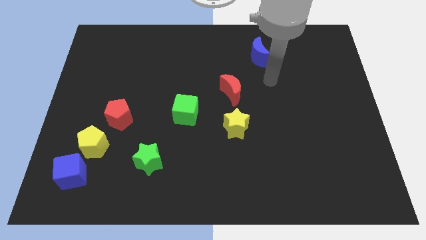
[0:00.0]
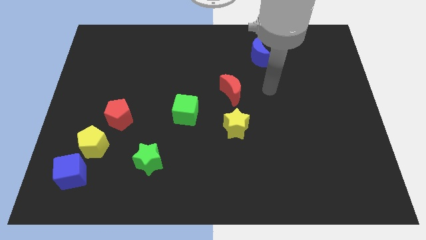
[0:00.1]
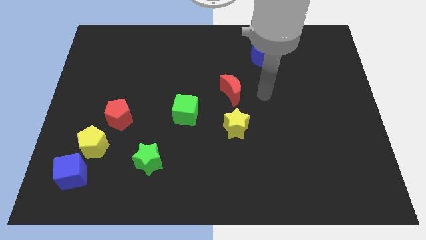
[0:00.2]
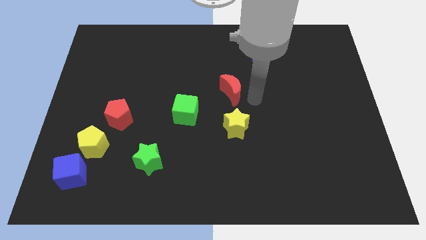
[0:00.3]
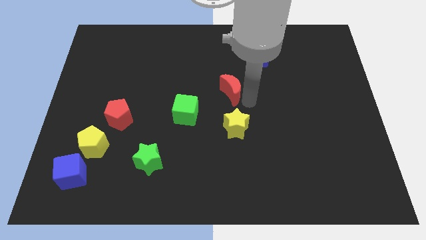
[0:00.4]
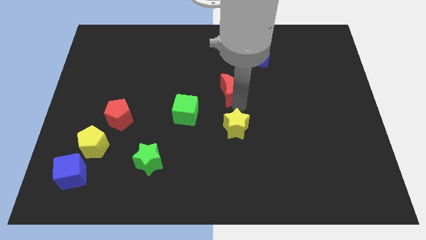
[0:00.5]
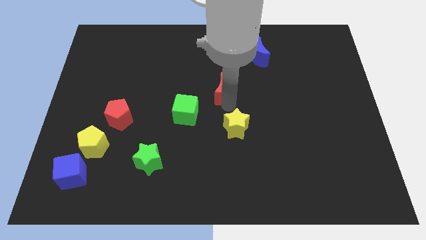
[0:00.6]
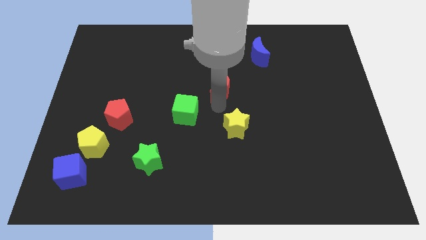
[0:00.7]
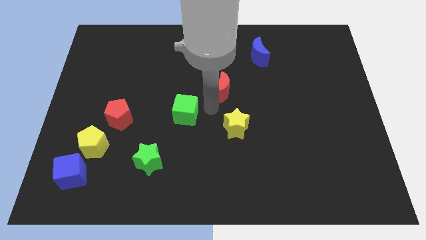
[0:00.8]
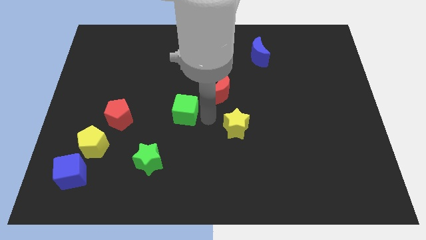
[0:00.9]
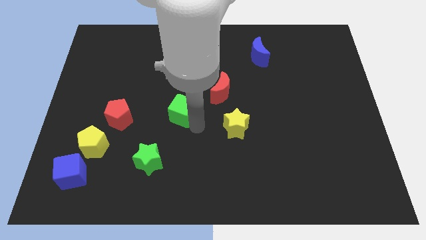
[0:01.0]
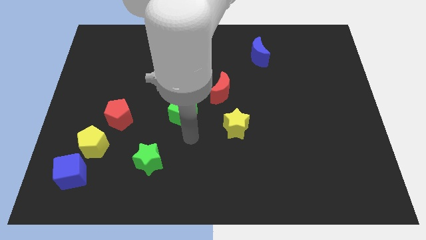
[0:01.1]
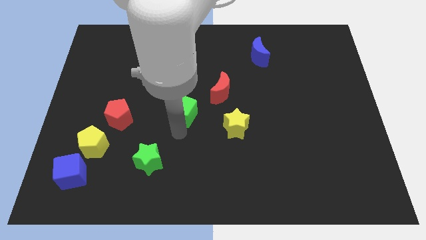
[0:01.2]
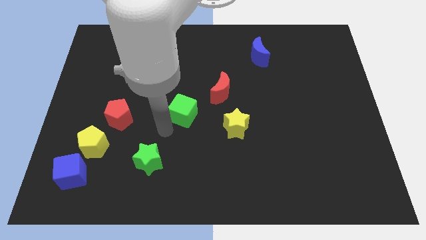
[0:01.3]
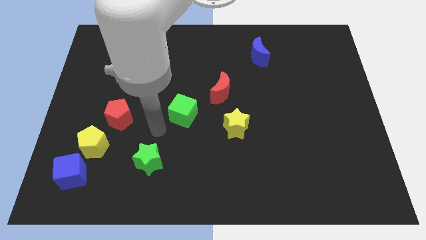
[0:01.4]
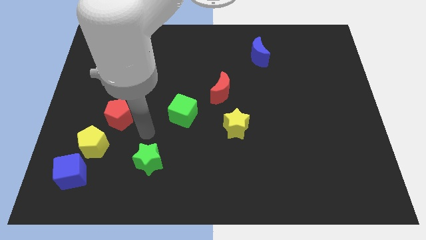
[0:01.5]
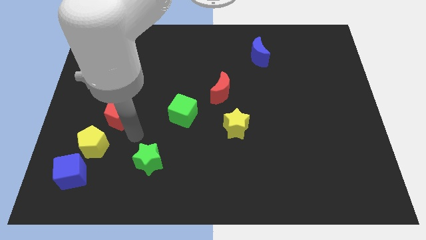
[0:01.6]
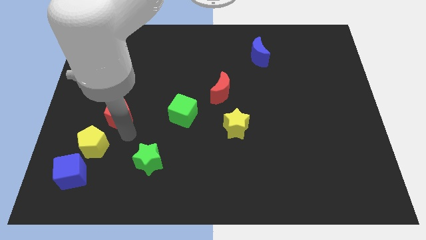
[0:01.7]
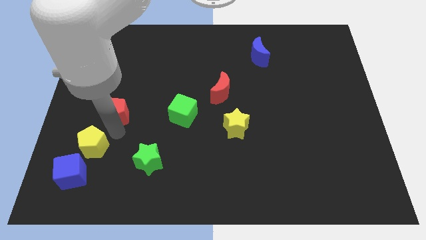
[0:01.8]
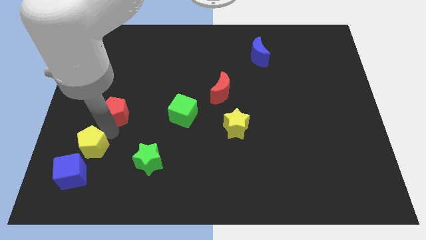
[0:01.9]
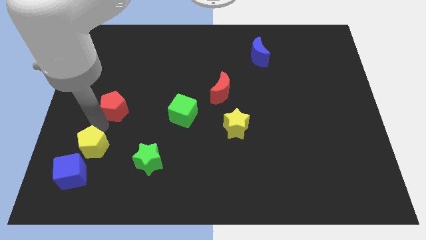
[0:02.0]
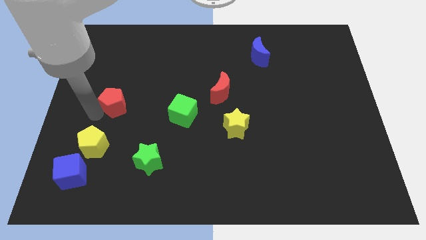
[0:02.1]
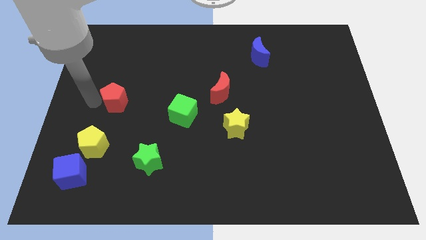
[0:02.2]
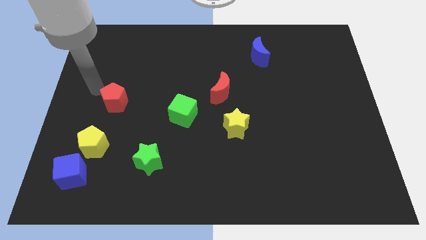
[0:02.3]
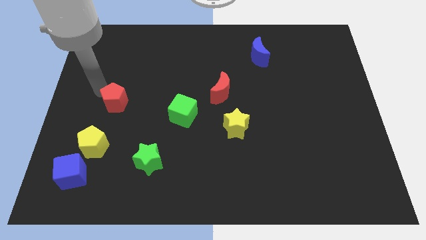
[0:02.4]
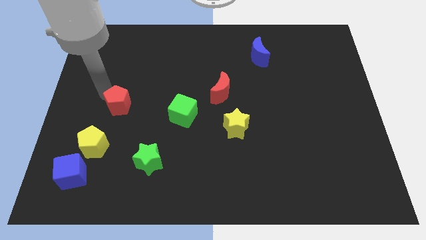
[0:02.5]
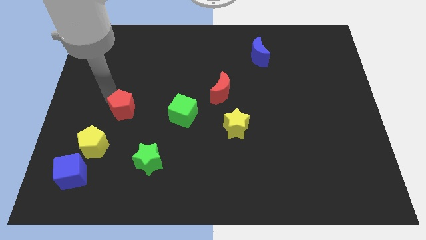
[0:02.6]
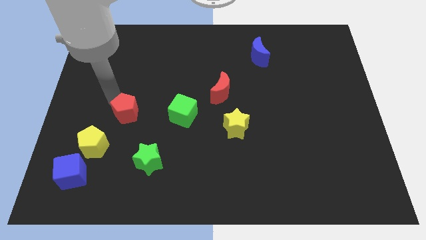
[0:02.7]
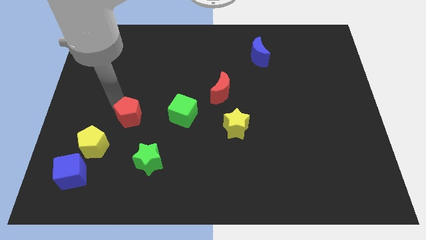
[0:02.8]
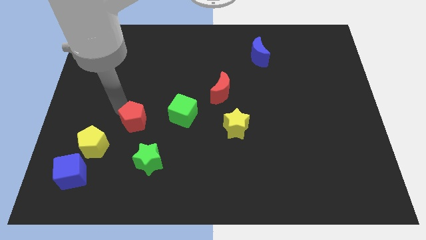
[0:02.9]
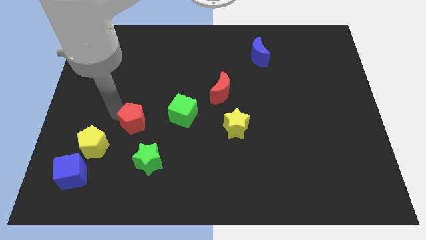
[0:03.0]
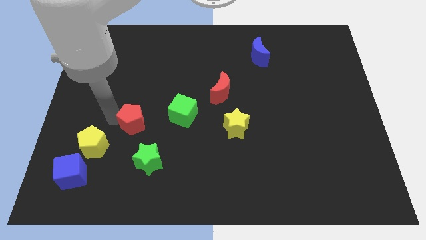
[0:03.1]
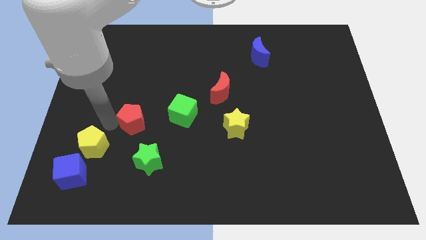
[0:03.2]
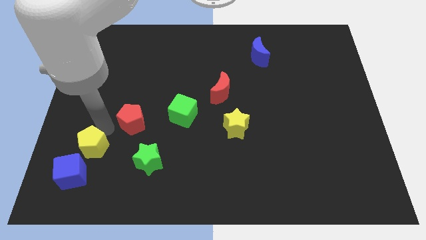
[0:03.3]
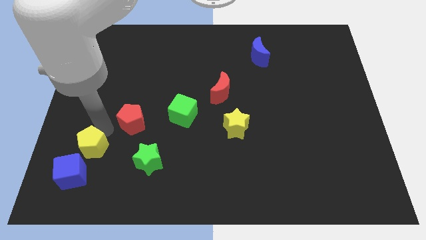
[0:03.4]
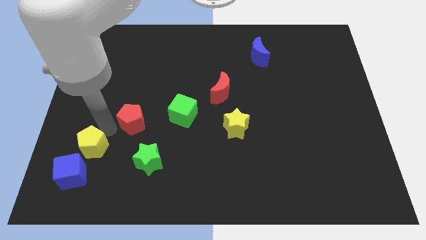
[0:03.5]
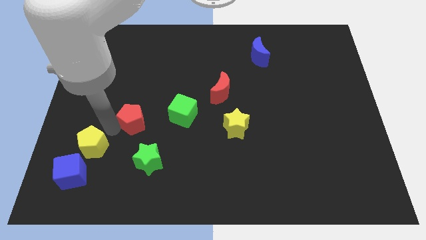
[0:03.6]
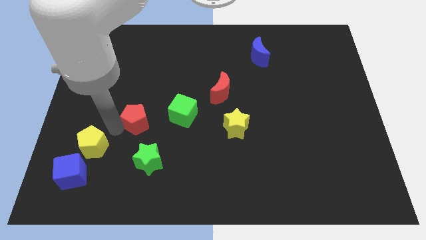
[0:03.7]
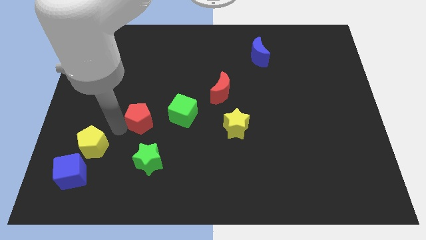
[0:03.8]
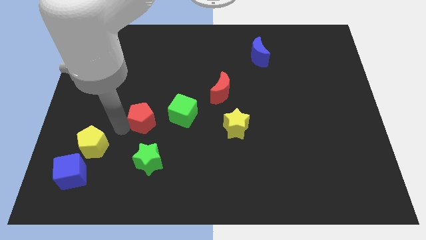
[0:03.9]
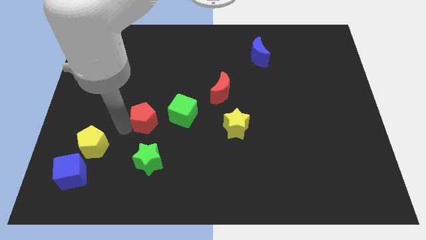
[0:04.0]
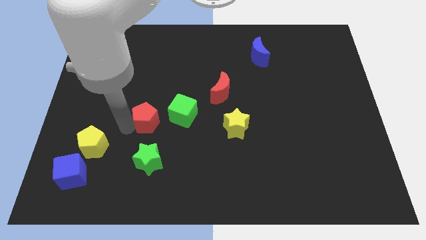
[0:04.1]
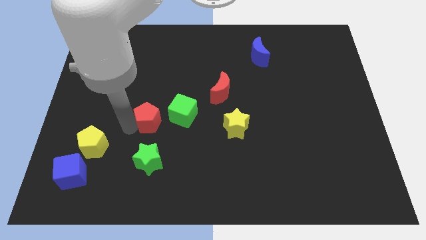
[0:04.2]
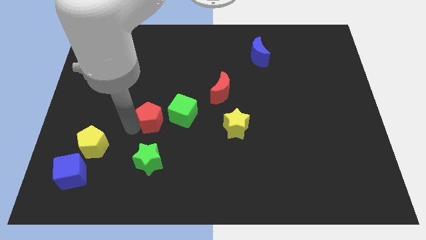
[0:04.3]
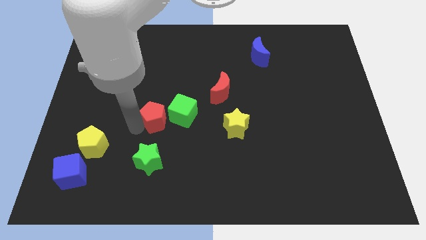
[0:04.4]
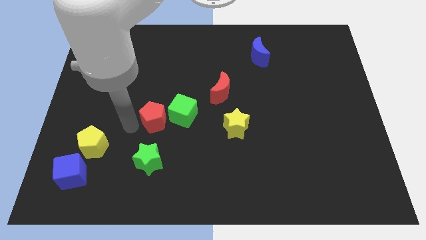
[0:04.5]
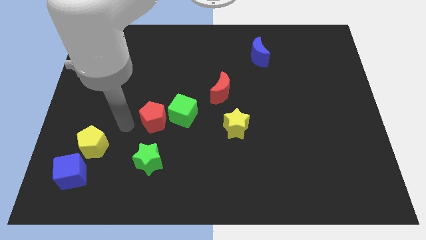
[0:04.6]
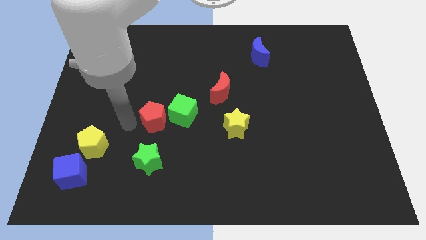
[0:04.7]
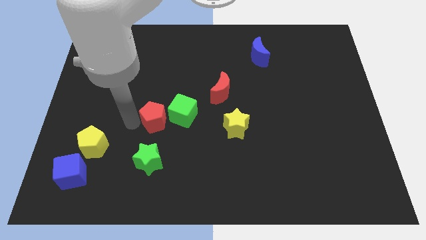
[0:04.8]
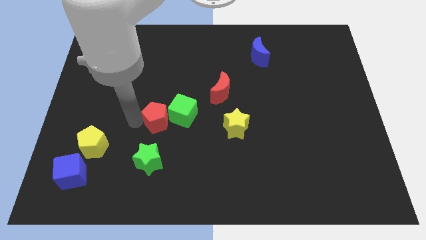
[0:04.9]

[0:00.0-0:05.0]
put the red pentagon next to the green cube

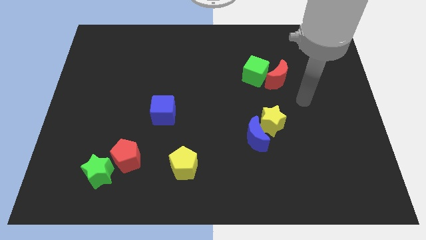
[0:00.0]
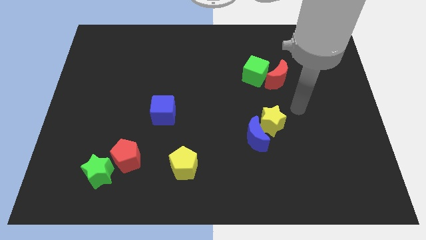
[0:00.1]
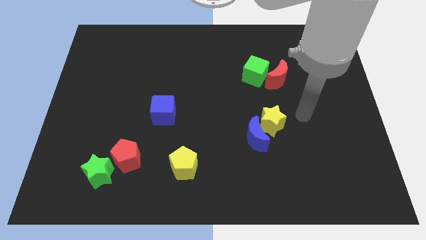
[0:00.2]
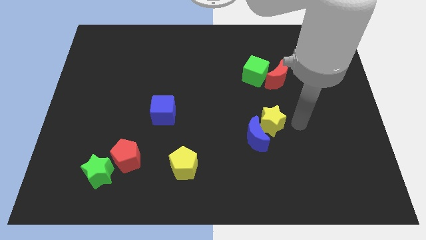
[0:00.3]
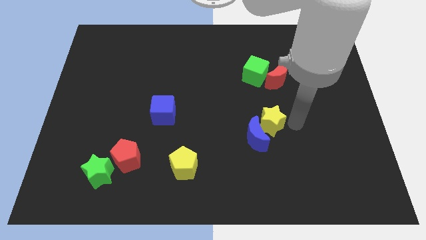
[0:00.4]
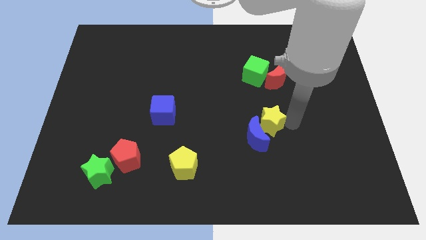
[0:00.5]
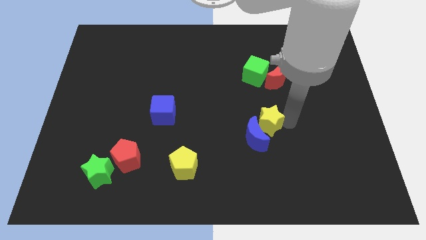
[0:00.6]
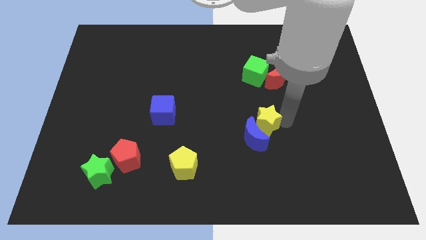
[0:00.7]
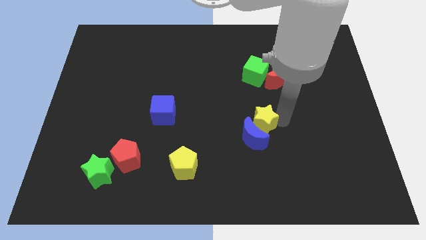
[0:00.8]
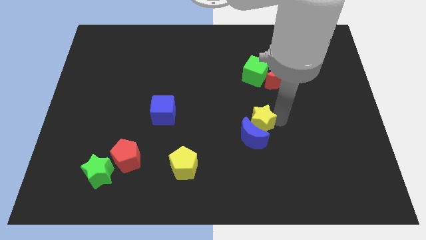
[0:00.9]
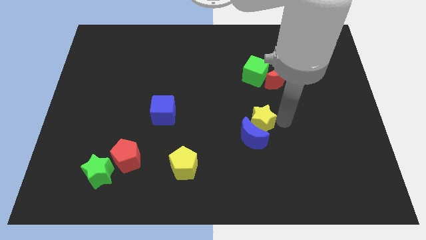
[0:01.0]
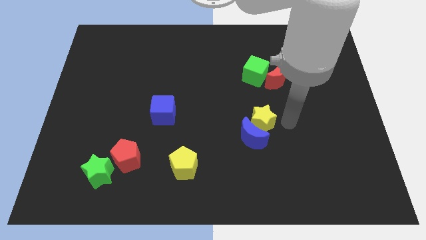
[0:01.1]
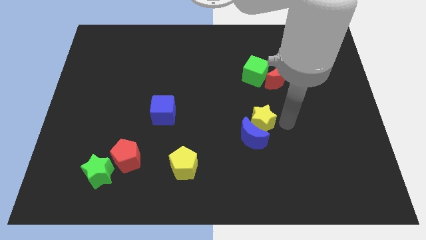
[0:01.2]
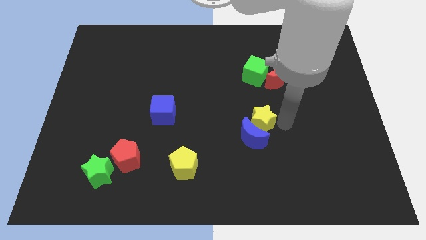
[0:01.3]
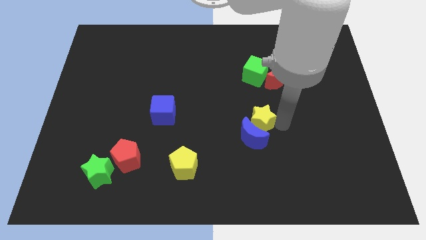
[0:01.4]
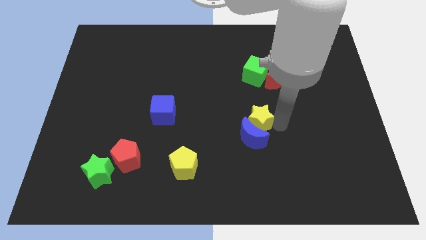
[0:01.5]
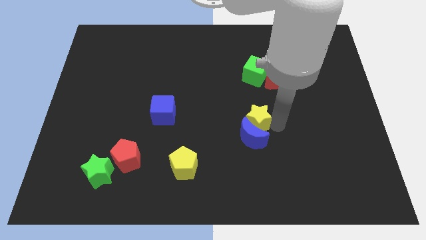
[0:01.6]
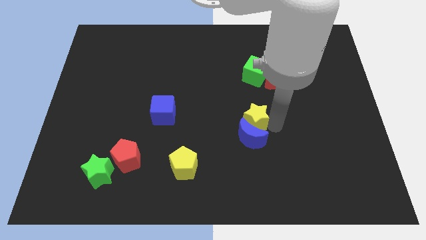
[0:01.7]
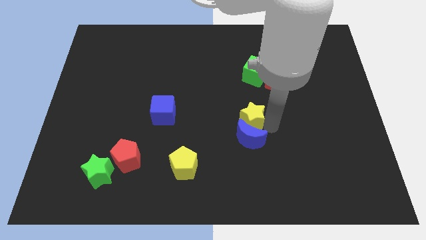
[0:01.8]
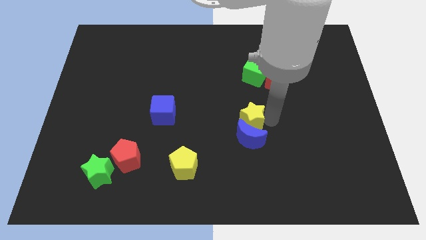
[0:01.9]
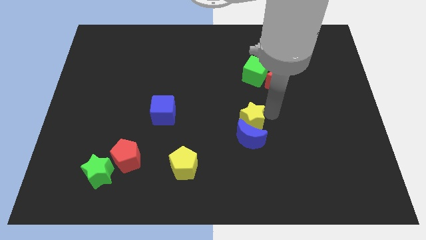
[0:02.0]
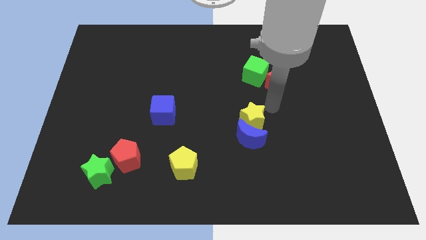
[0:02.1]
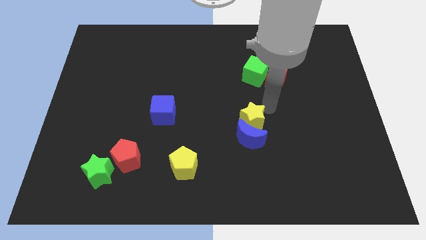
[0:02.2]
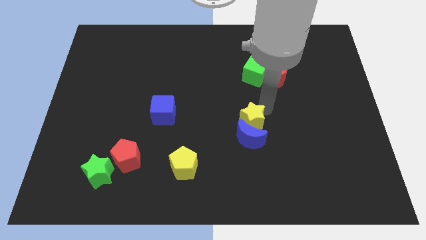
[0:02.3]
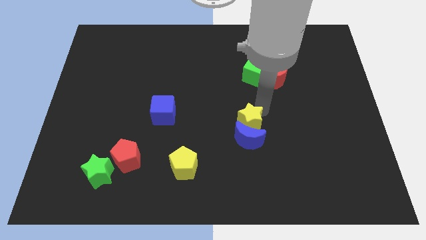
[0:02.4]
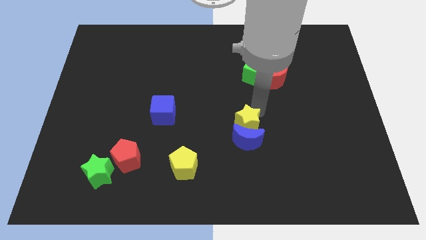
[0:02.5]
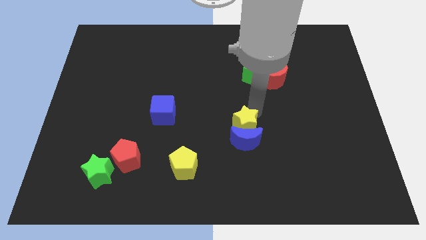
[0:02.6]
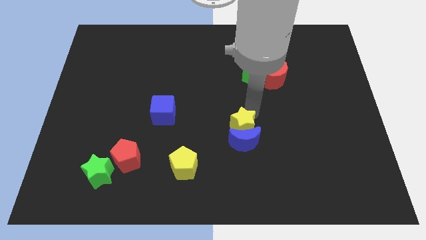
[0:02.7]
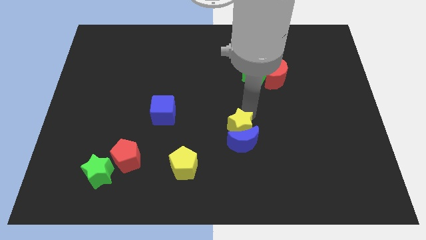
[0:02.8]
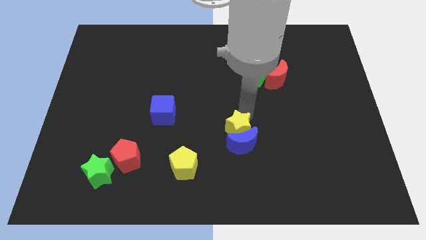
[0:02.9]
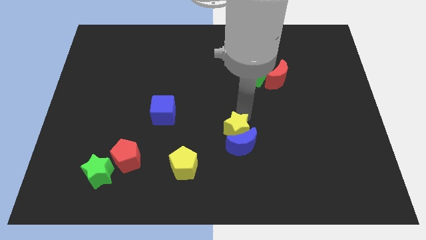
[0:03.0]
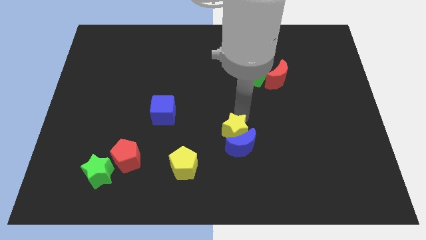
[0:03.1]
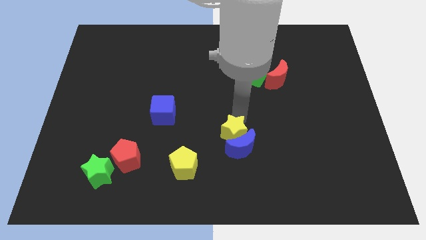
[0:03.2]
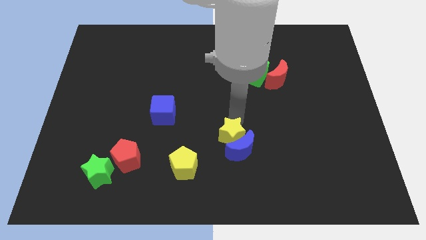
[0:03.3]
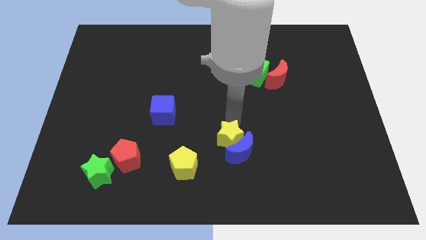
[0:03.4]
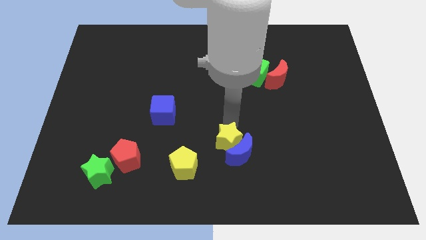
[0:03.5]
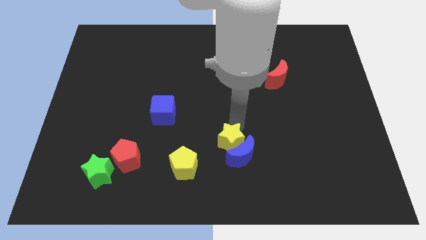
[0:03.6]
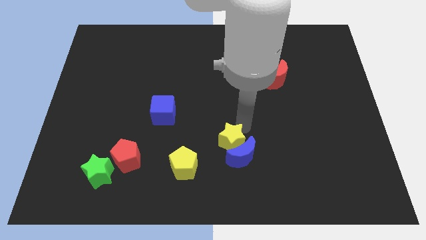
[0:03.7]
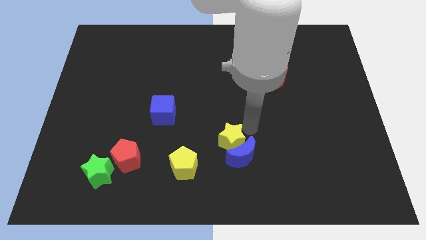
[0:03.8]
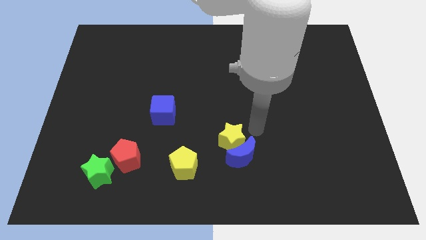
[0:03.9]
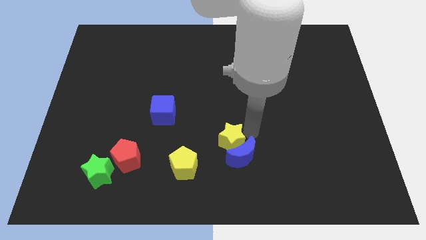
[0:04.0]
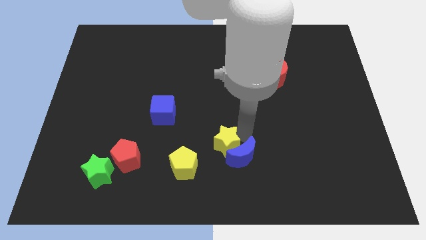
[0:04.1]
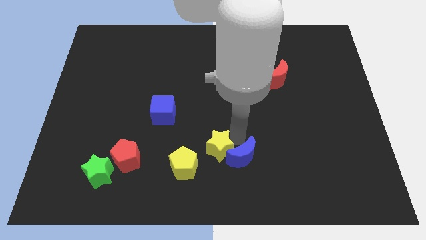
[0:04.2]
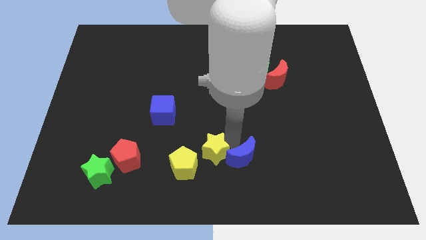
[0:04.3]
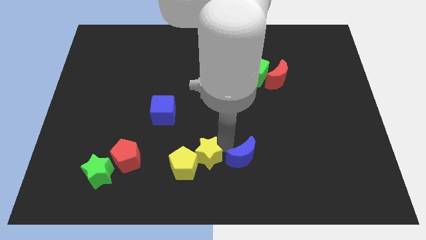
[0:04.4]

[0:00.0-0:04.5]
put the yellow star close to the yellow pentagon
